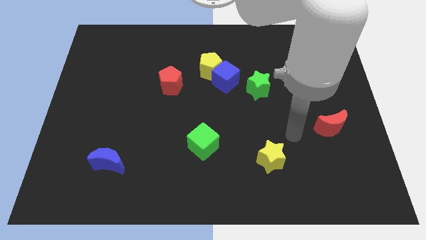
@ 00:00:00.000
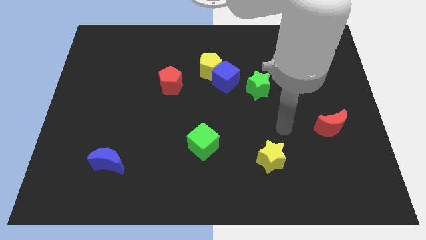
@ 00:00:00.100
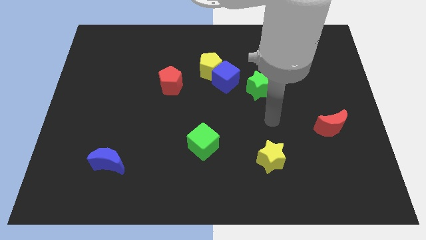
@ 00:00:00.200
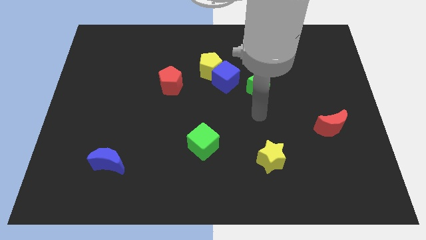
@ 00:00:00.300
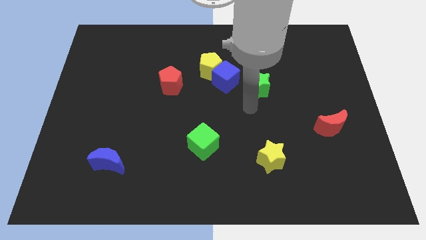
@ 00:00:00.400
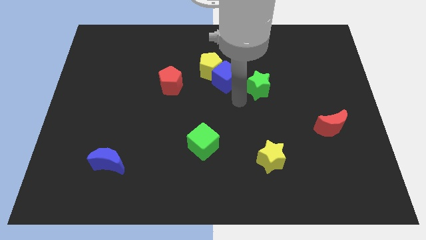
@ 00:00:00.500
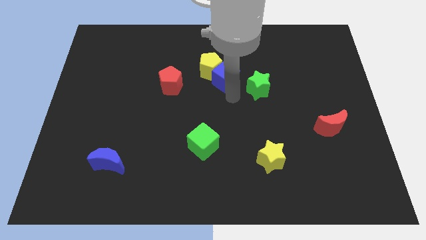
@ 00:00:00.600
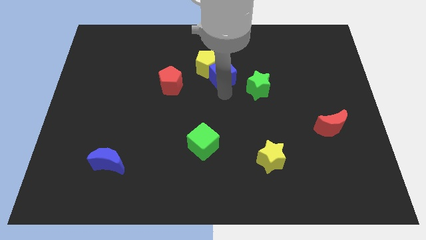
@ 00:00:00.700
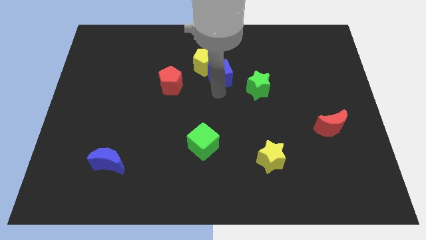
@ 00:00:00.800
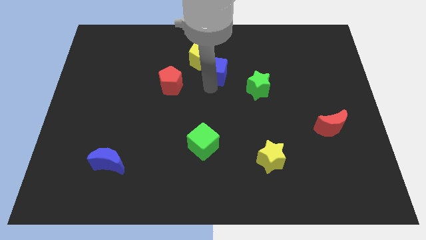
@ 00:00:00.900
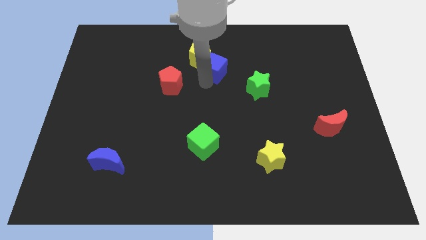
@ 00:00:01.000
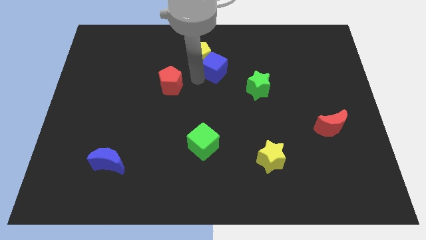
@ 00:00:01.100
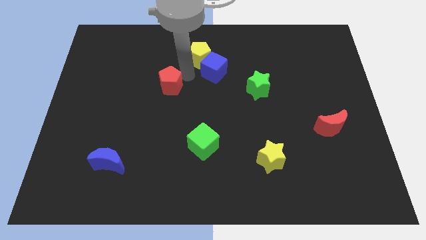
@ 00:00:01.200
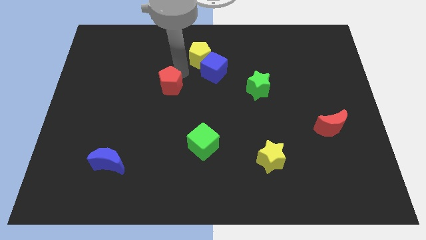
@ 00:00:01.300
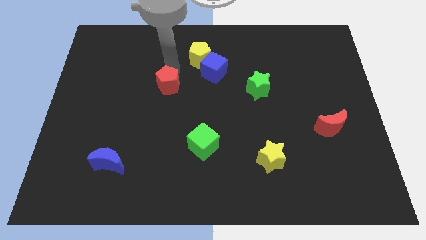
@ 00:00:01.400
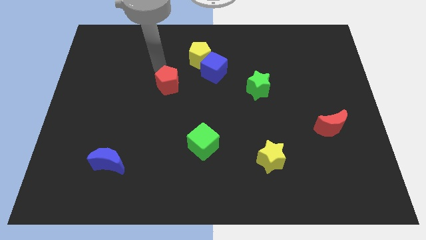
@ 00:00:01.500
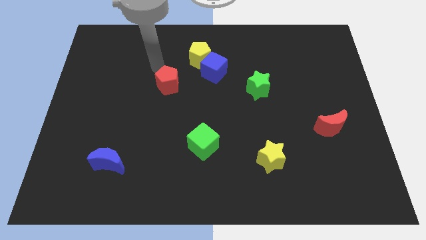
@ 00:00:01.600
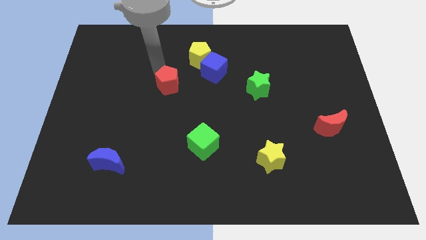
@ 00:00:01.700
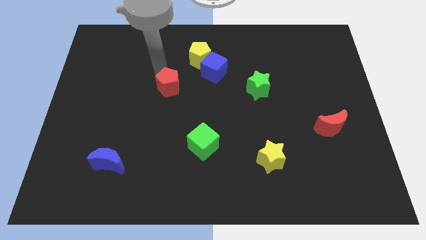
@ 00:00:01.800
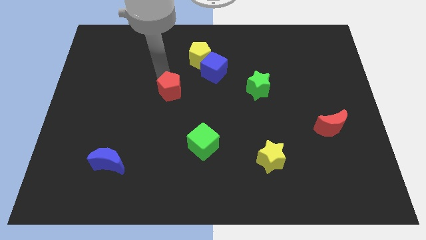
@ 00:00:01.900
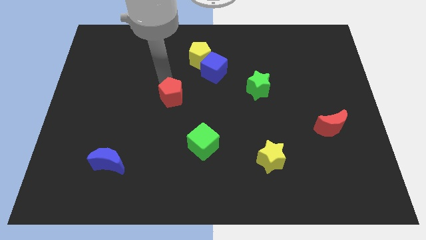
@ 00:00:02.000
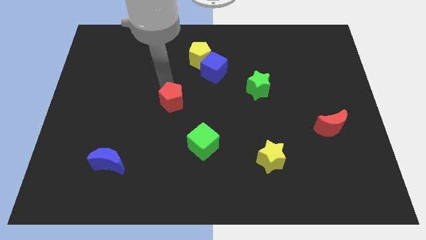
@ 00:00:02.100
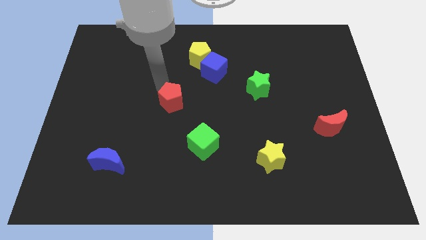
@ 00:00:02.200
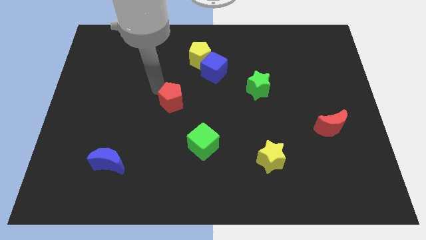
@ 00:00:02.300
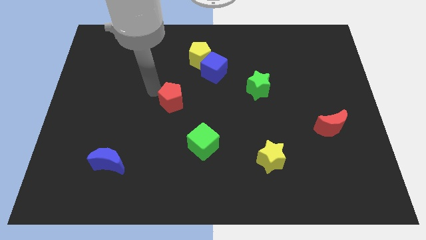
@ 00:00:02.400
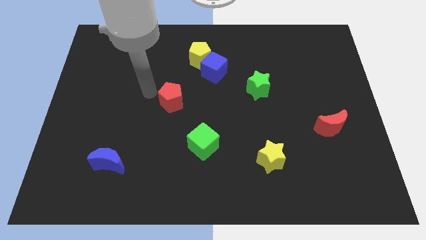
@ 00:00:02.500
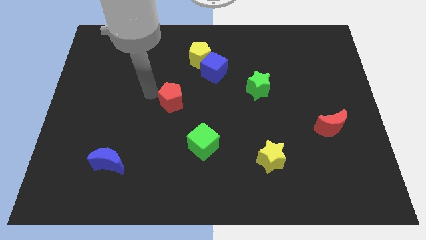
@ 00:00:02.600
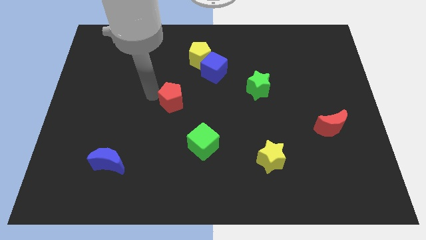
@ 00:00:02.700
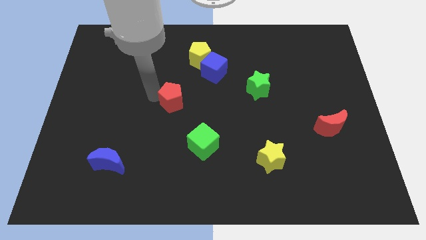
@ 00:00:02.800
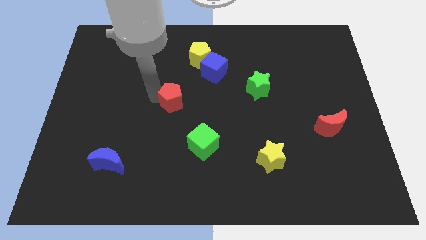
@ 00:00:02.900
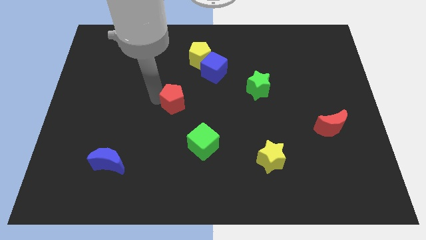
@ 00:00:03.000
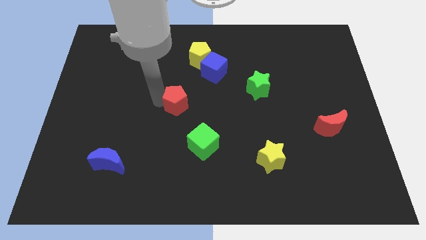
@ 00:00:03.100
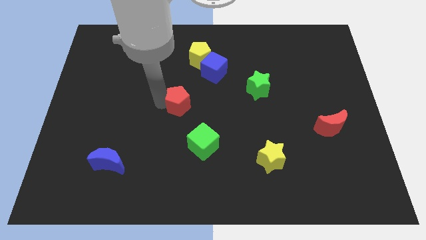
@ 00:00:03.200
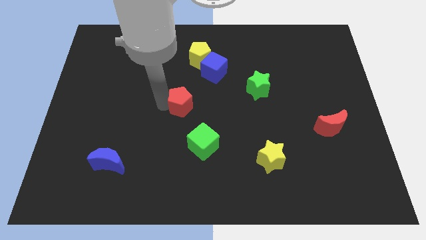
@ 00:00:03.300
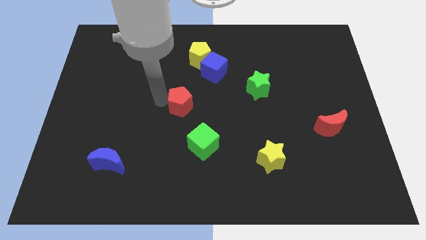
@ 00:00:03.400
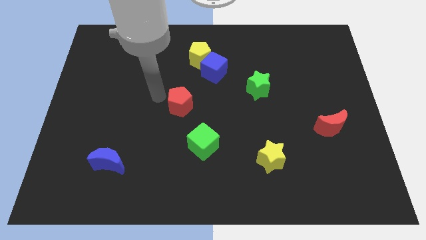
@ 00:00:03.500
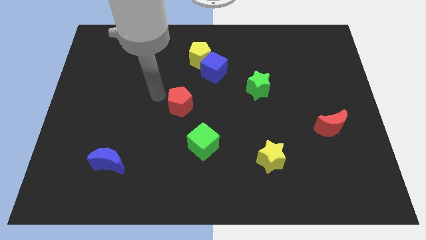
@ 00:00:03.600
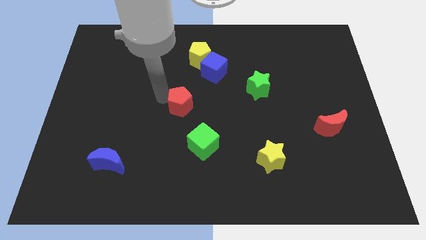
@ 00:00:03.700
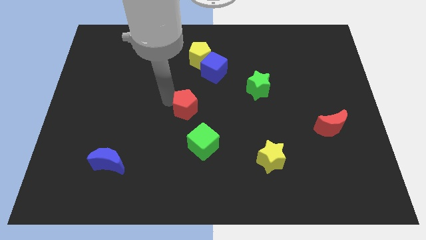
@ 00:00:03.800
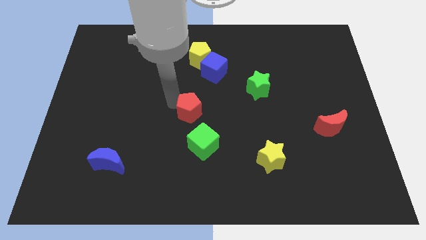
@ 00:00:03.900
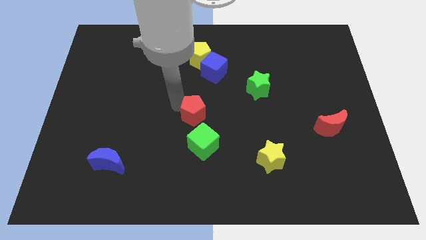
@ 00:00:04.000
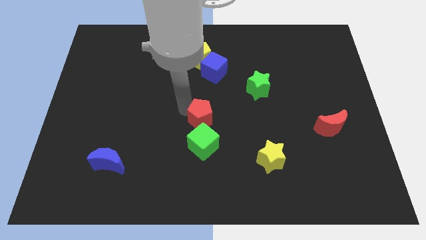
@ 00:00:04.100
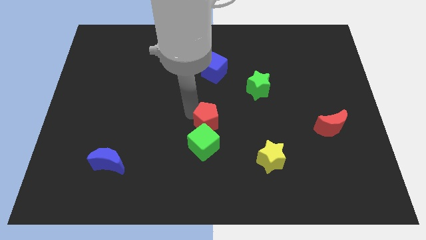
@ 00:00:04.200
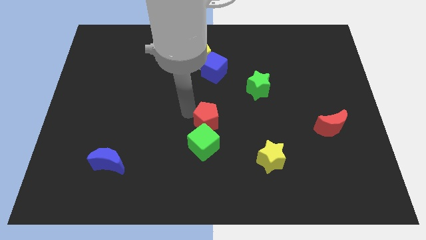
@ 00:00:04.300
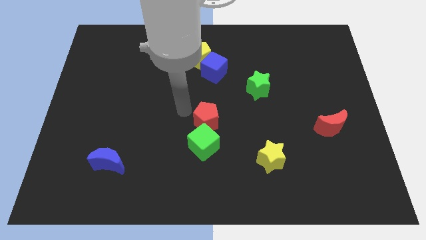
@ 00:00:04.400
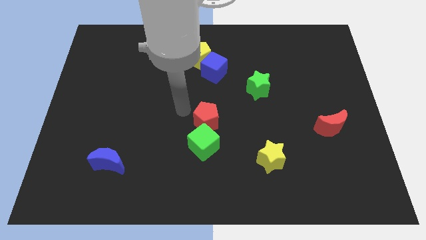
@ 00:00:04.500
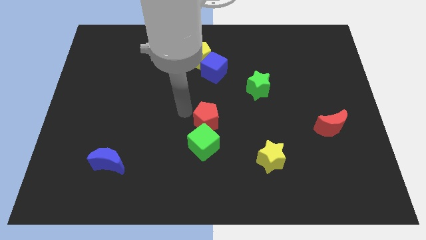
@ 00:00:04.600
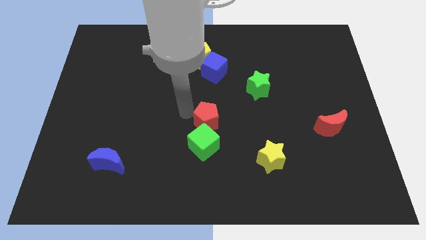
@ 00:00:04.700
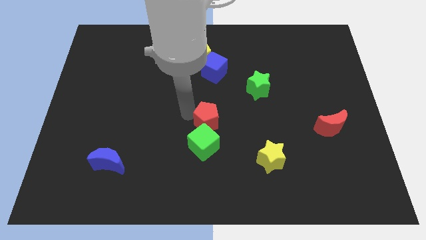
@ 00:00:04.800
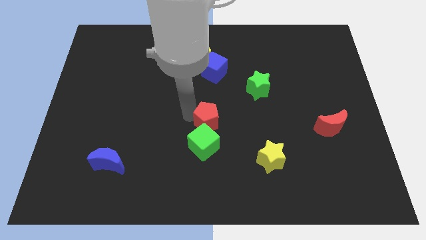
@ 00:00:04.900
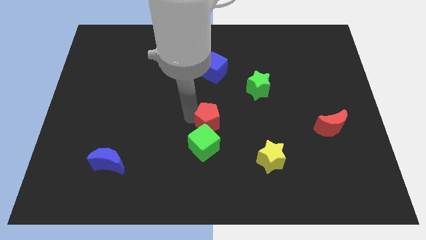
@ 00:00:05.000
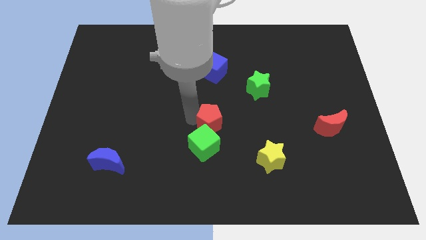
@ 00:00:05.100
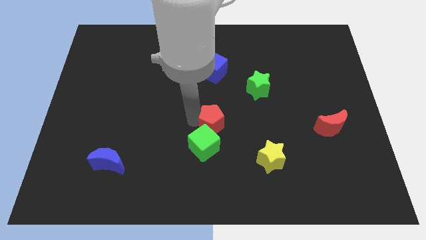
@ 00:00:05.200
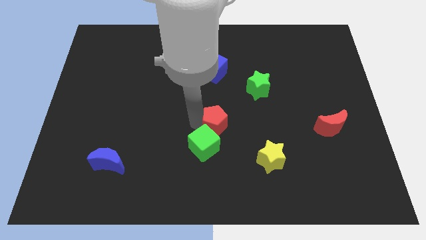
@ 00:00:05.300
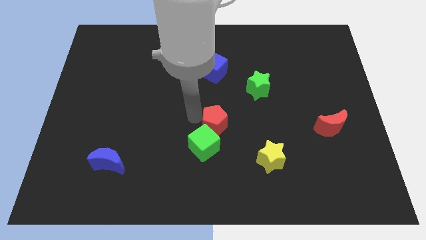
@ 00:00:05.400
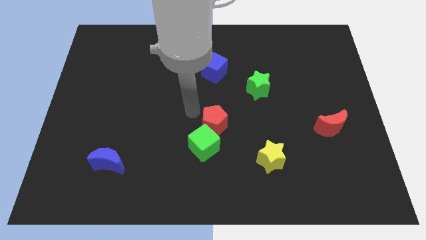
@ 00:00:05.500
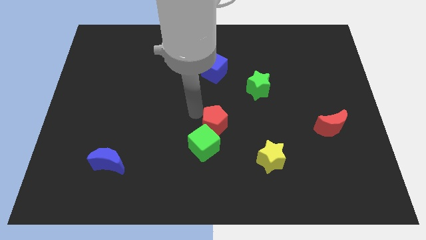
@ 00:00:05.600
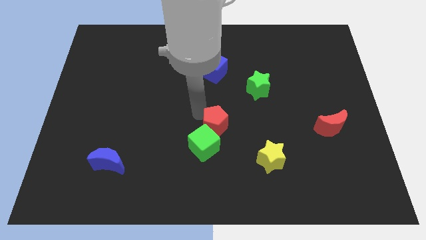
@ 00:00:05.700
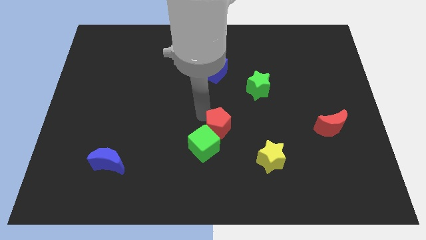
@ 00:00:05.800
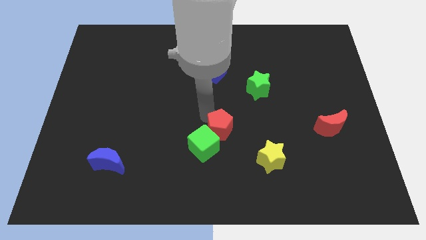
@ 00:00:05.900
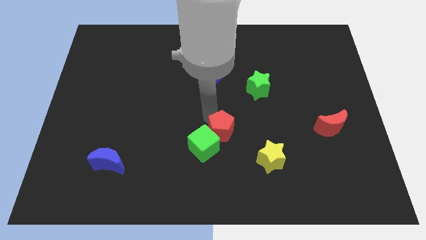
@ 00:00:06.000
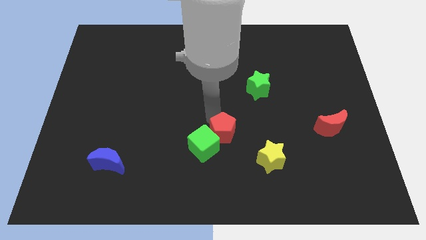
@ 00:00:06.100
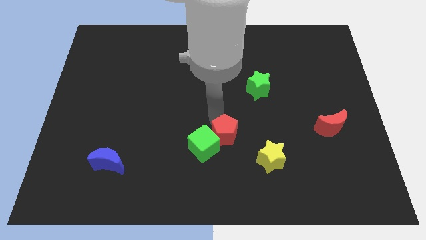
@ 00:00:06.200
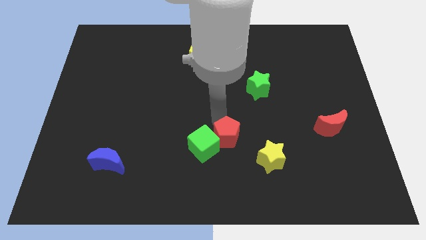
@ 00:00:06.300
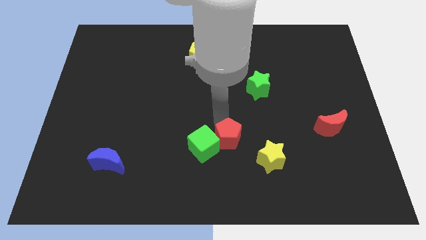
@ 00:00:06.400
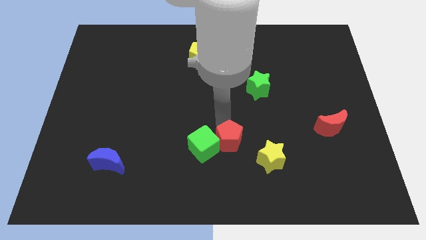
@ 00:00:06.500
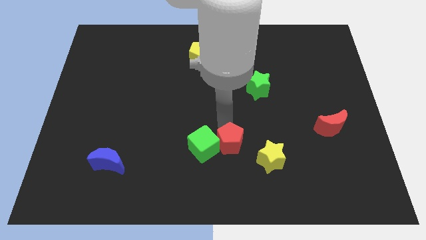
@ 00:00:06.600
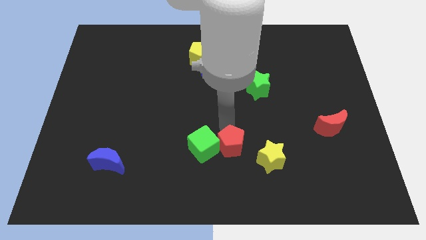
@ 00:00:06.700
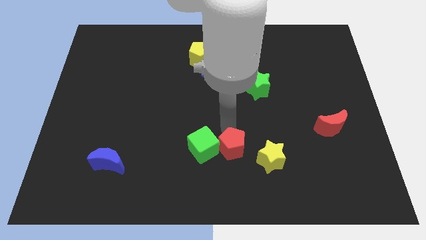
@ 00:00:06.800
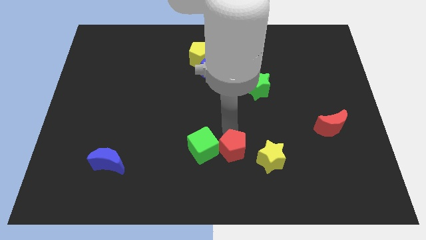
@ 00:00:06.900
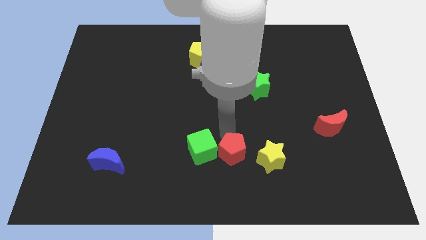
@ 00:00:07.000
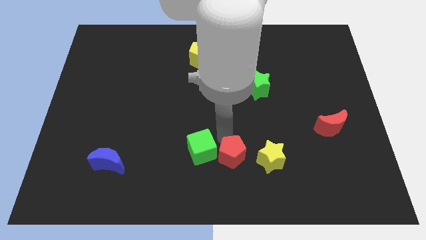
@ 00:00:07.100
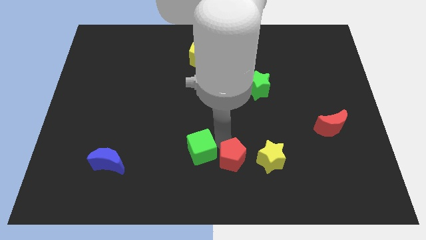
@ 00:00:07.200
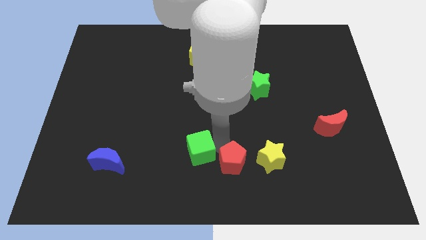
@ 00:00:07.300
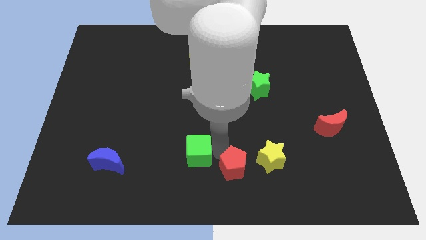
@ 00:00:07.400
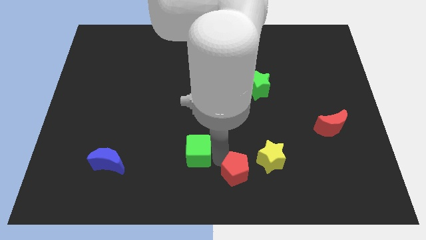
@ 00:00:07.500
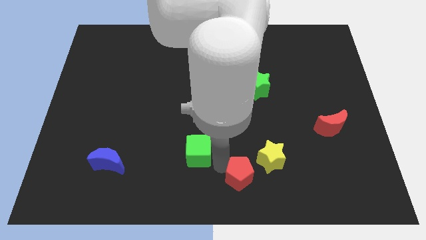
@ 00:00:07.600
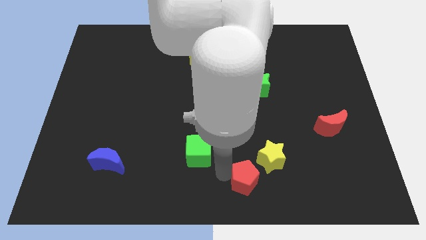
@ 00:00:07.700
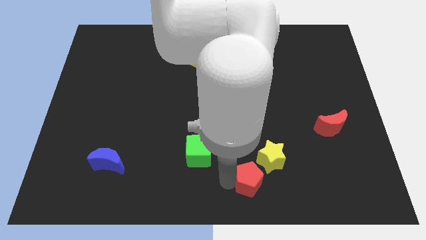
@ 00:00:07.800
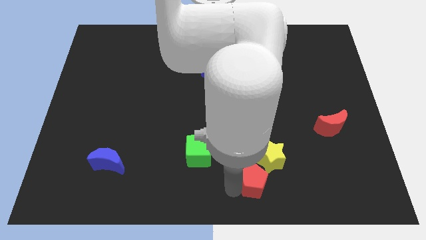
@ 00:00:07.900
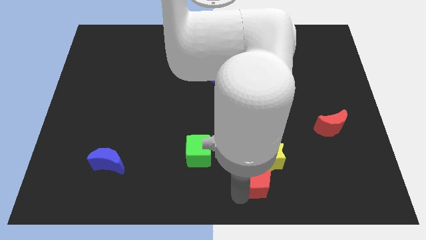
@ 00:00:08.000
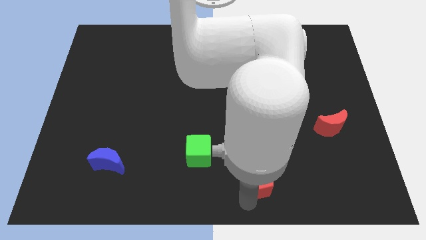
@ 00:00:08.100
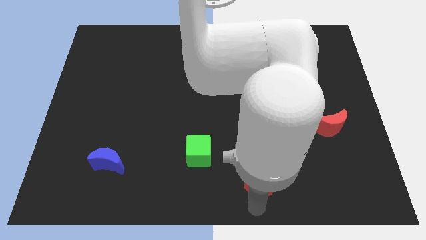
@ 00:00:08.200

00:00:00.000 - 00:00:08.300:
put the red pentagon next to the yellow star
